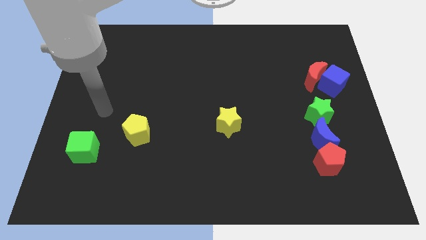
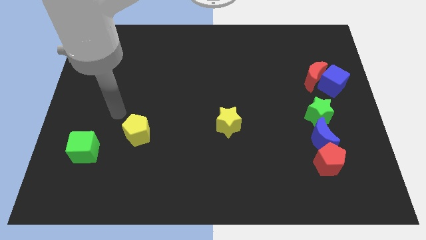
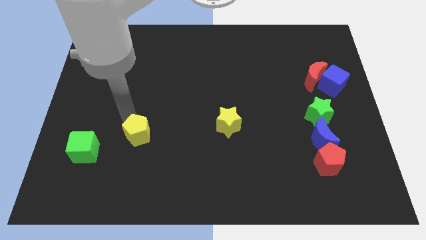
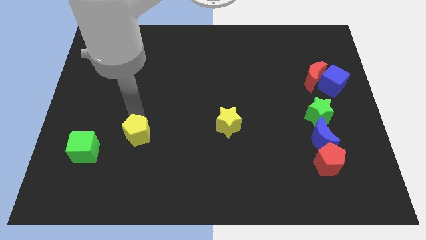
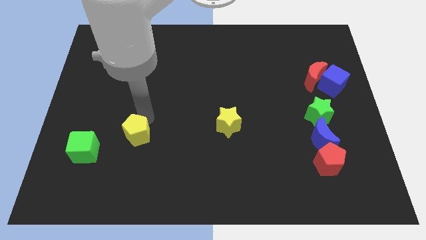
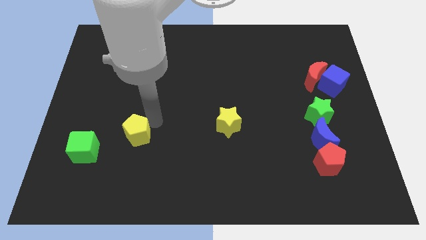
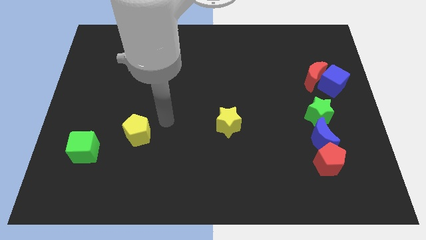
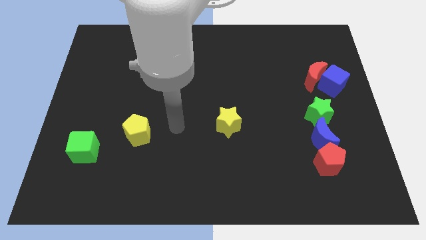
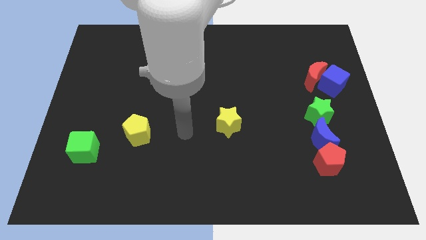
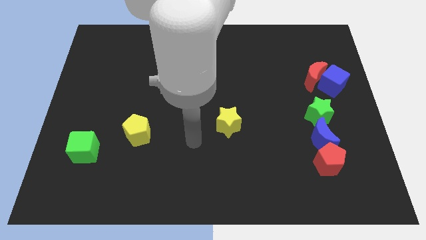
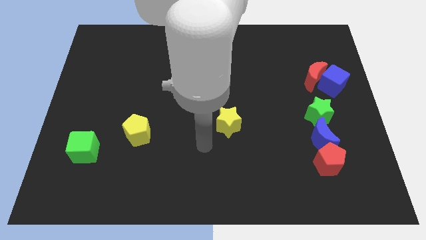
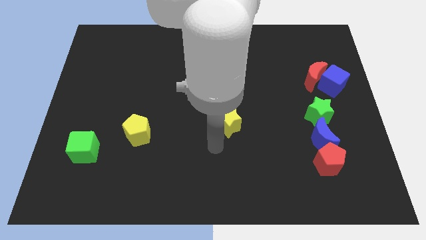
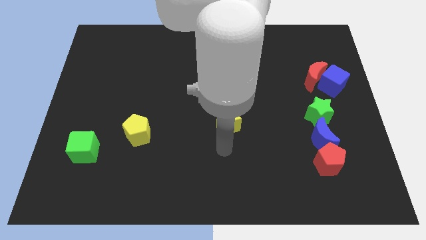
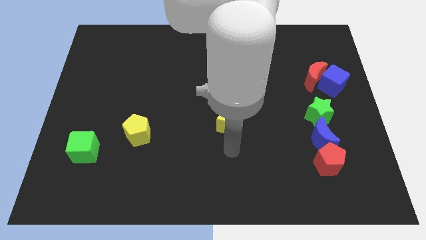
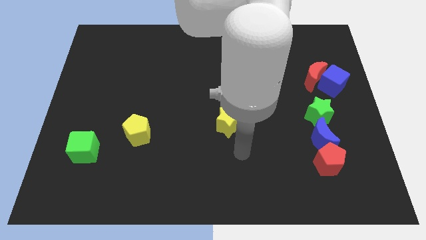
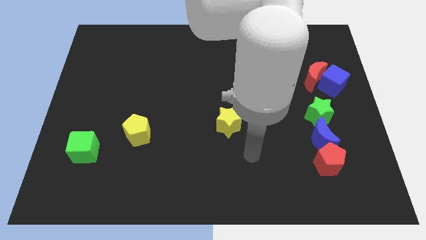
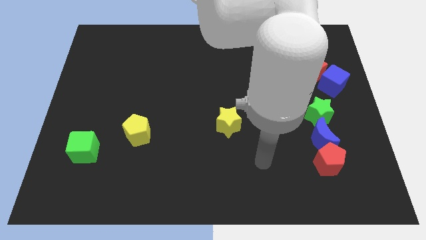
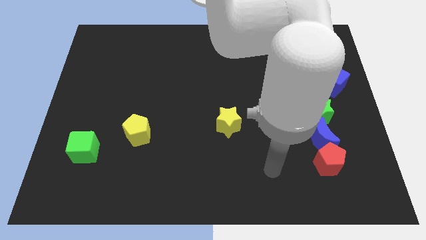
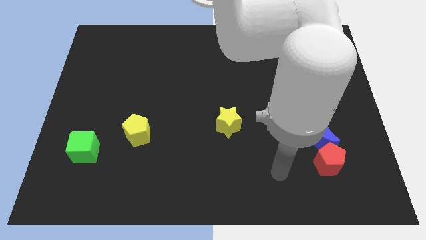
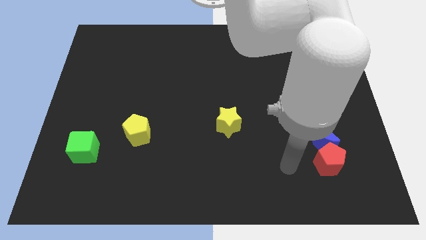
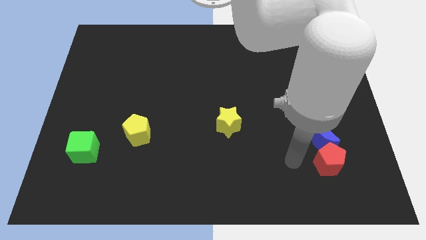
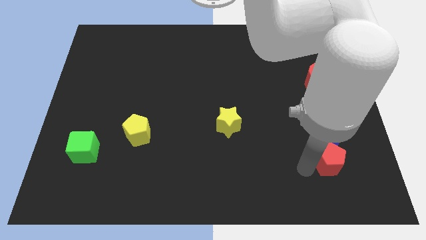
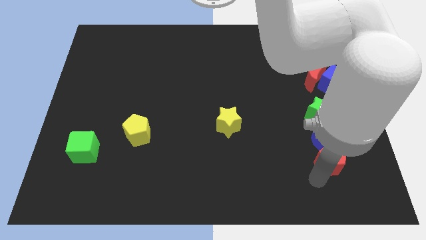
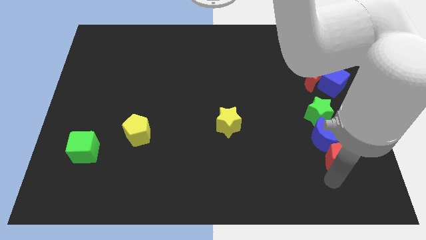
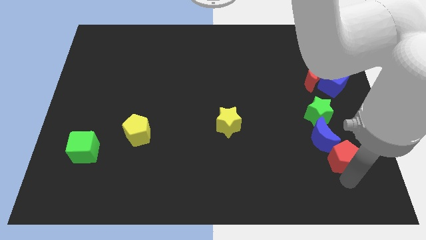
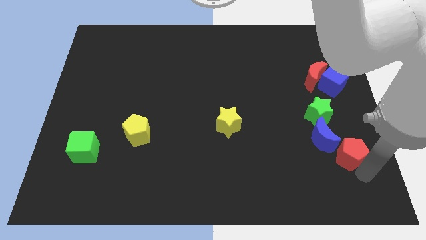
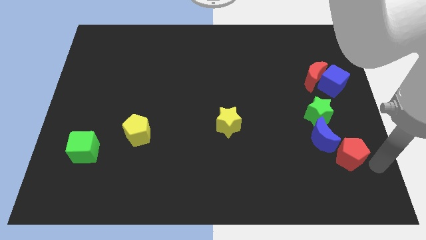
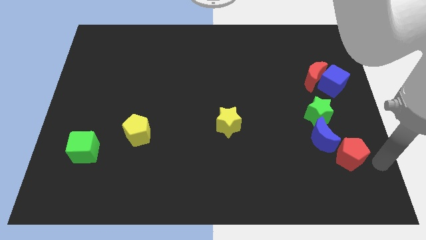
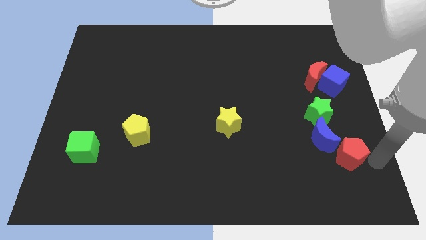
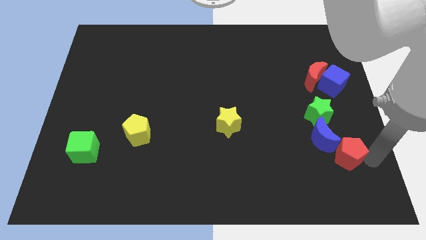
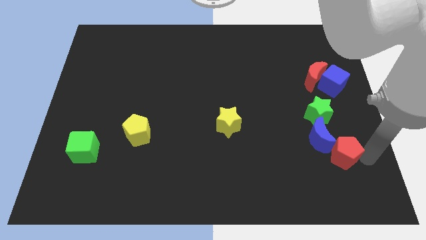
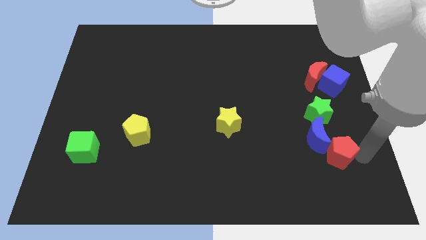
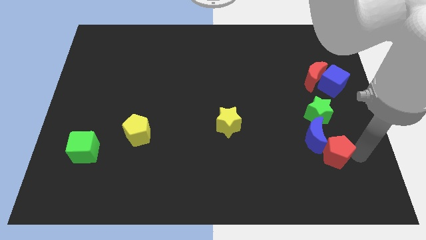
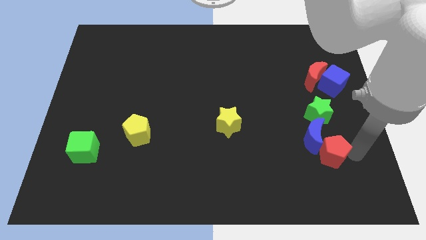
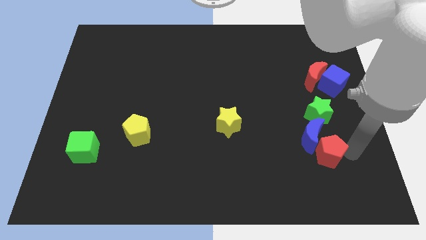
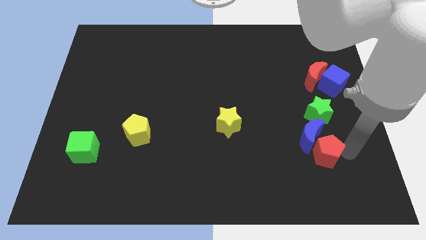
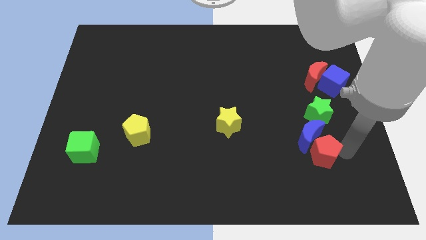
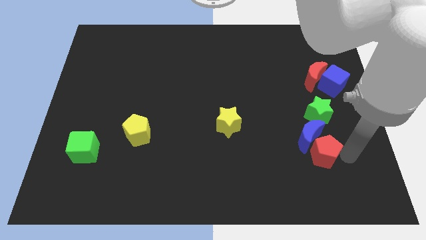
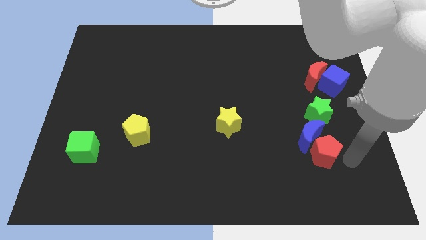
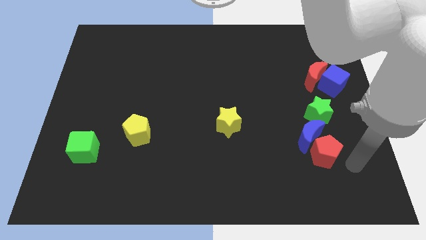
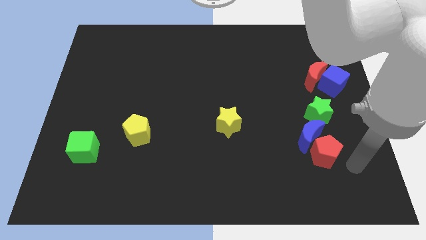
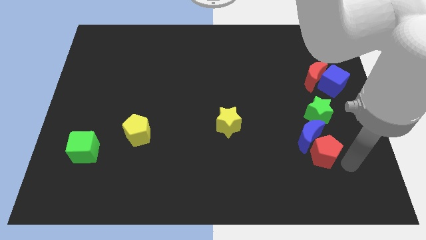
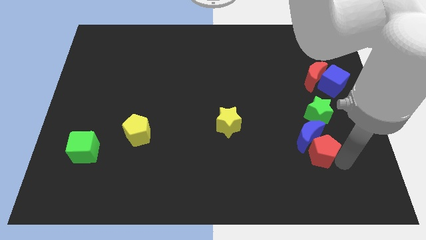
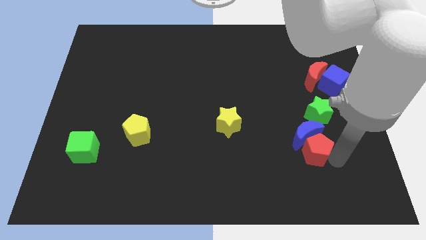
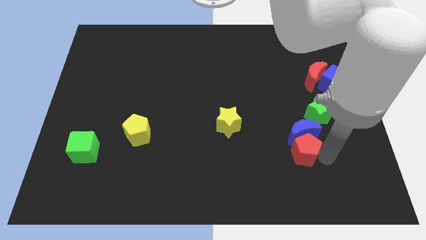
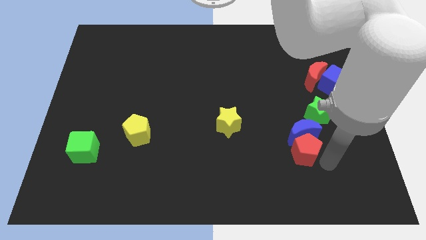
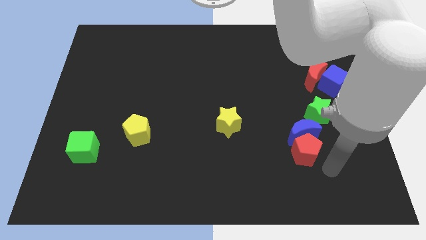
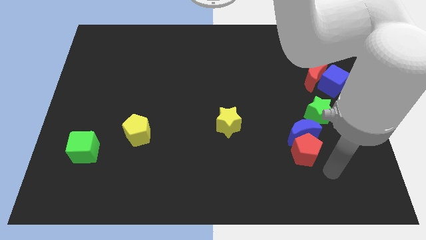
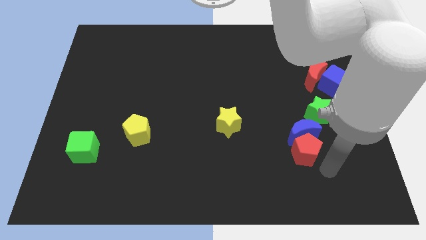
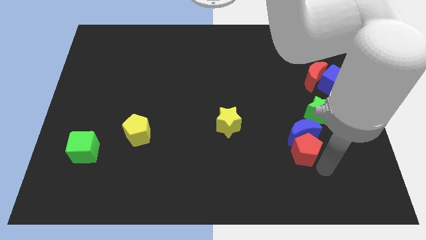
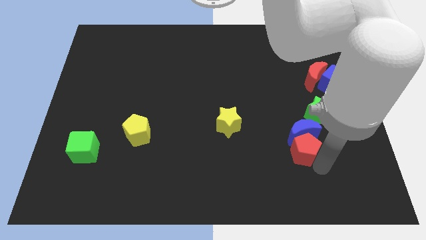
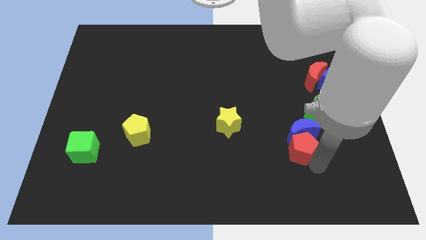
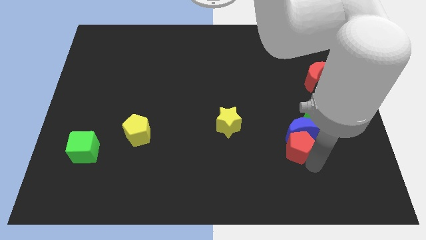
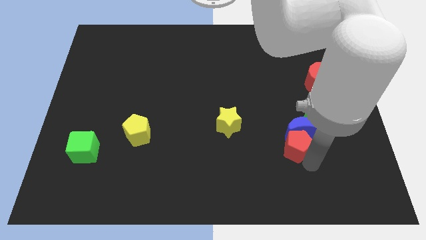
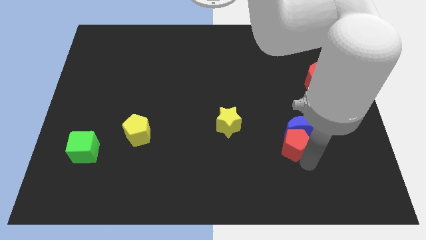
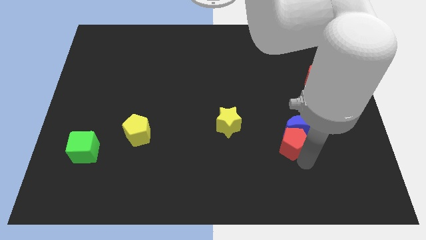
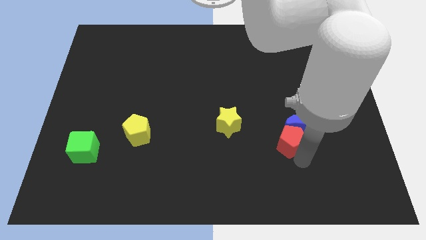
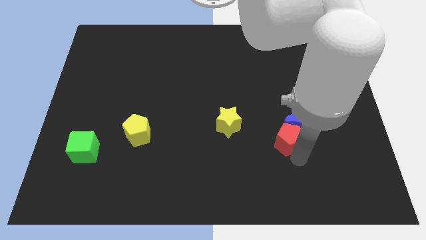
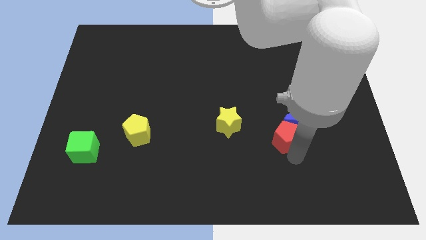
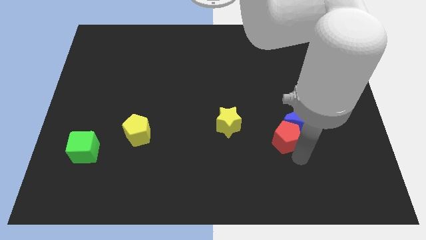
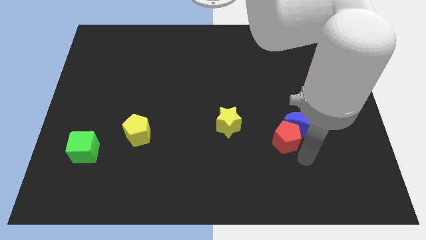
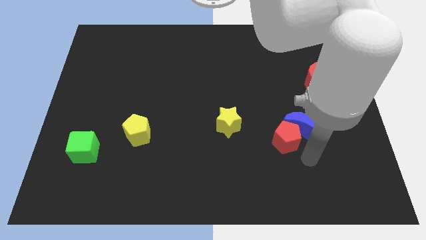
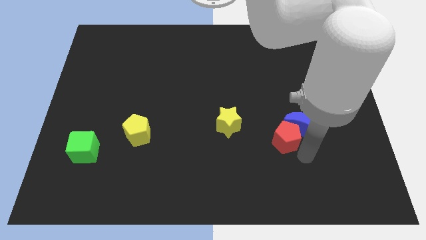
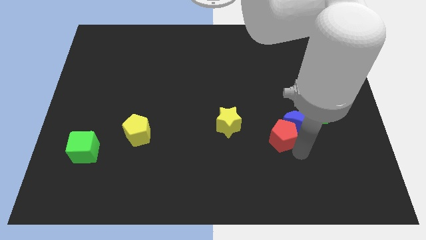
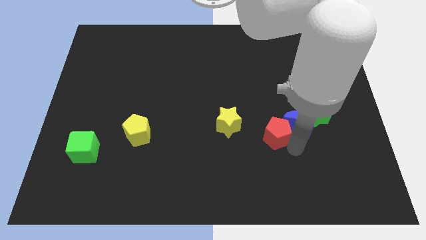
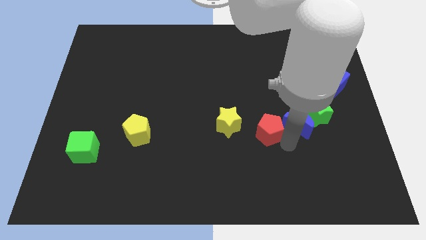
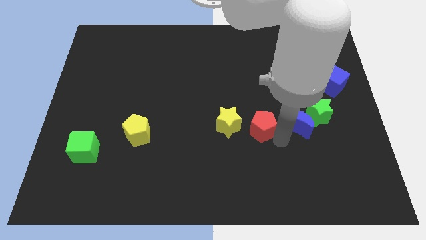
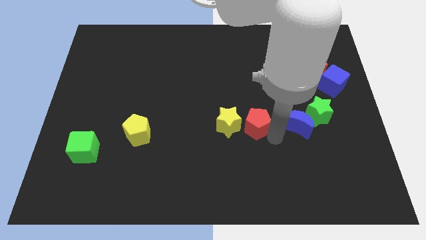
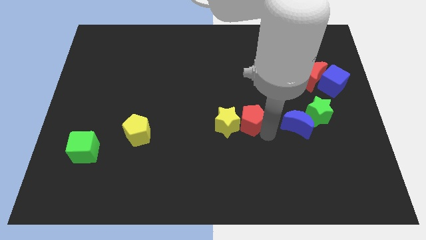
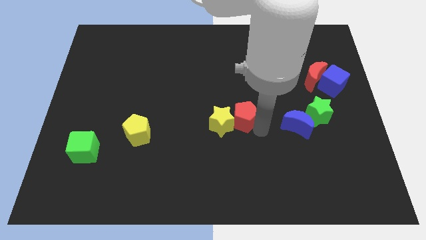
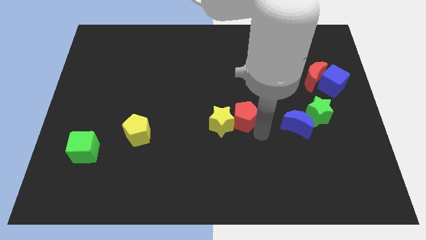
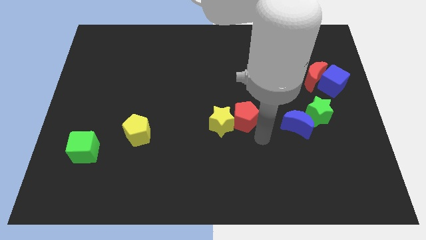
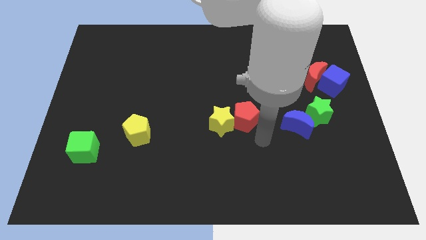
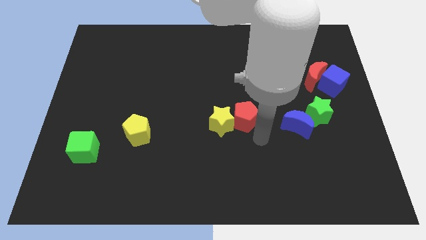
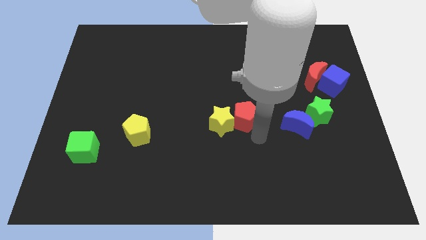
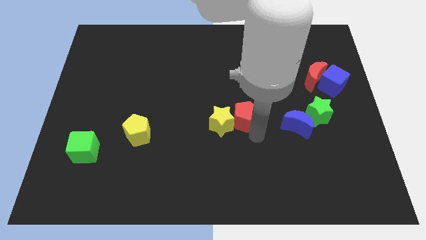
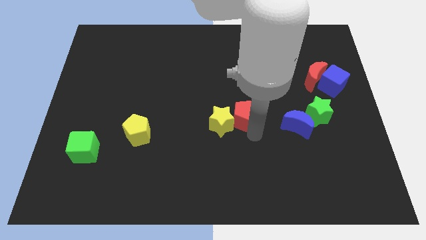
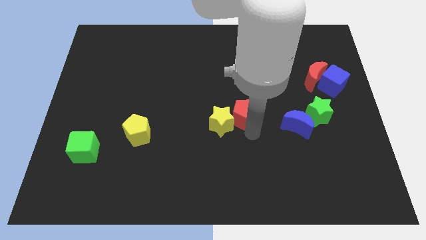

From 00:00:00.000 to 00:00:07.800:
push the red pentagon upwards and then left
